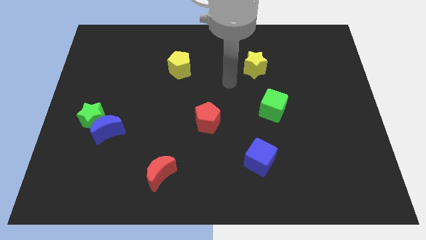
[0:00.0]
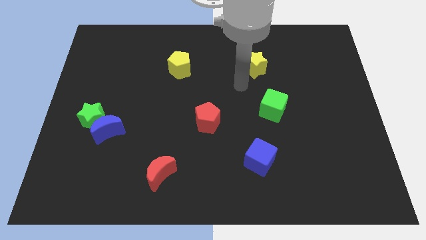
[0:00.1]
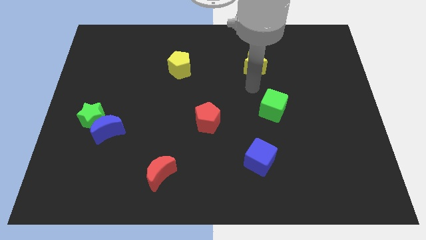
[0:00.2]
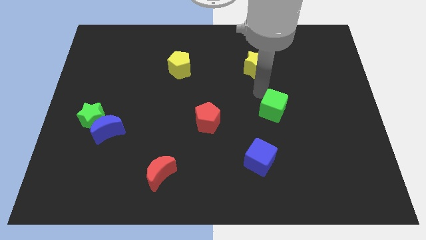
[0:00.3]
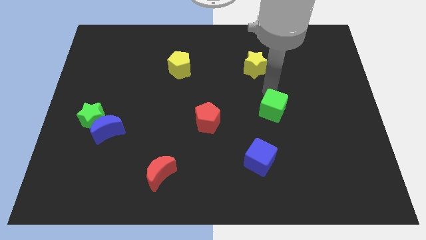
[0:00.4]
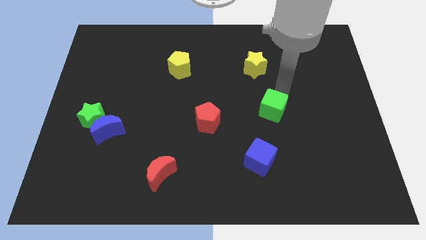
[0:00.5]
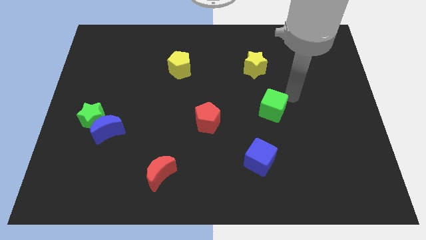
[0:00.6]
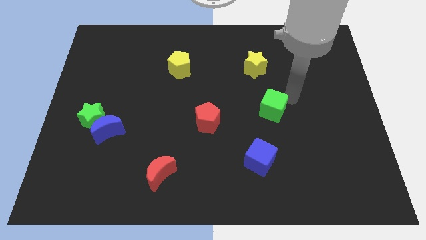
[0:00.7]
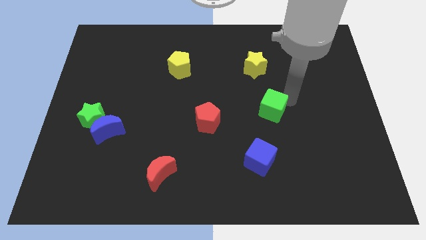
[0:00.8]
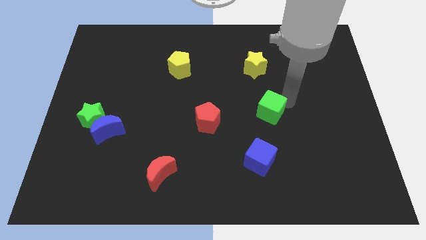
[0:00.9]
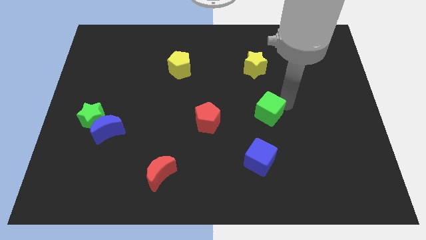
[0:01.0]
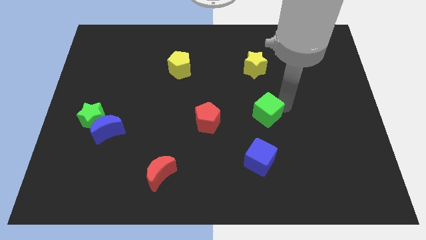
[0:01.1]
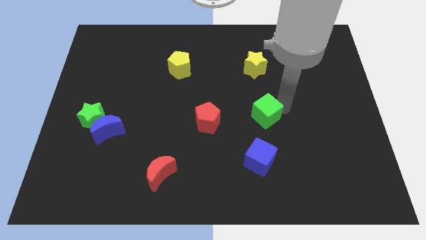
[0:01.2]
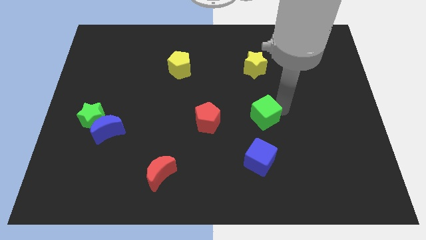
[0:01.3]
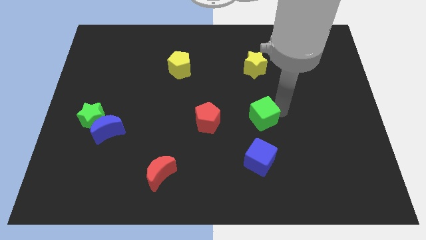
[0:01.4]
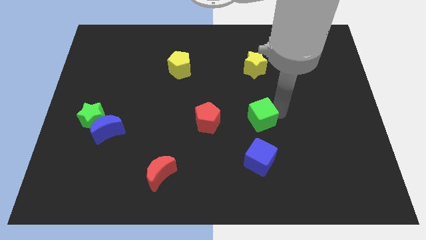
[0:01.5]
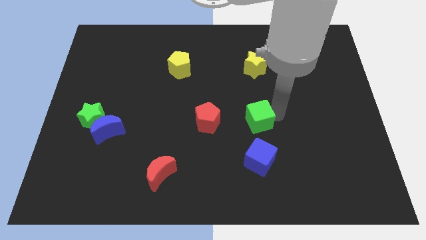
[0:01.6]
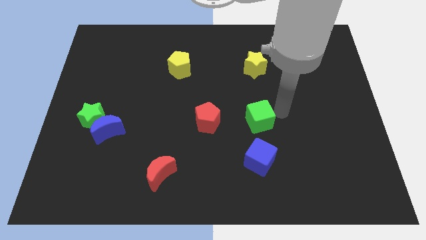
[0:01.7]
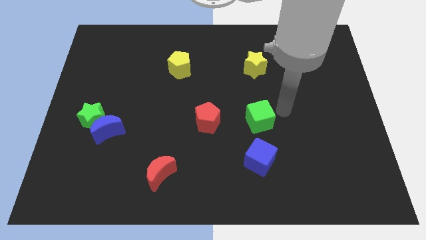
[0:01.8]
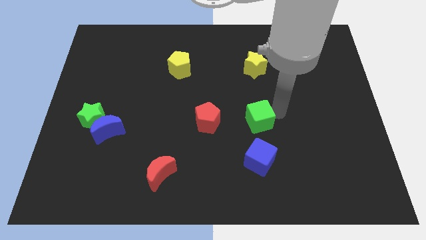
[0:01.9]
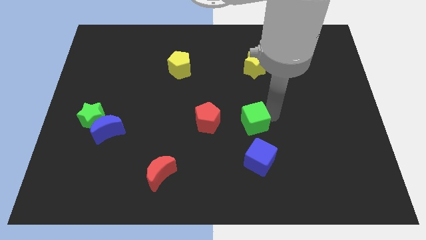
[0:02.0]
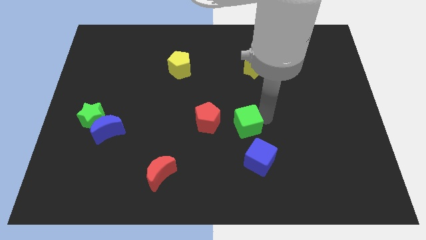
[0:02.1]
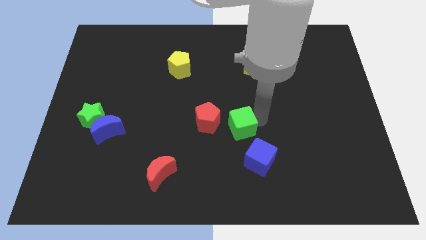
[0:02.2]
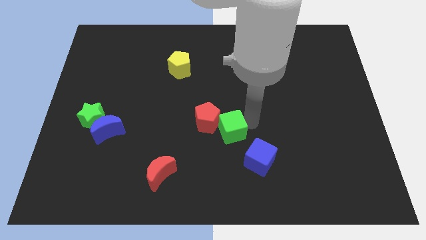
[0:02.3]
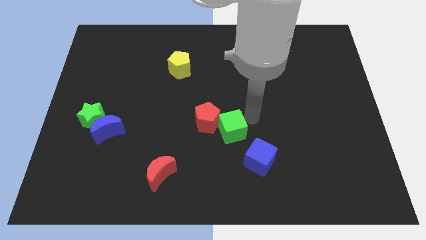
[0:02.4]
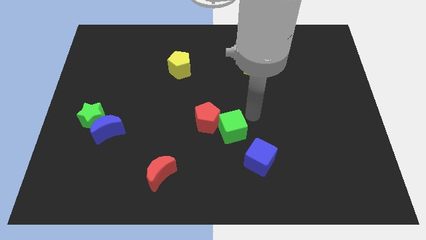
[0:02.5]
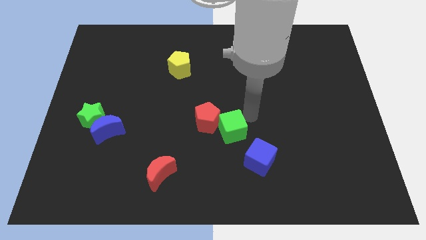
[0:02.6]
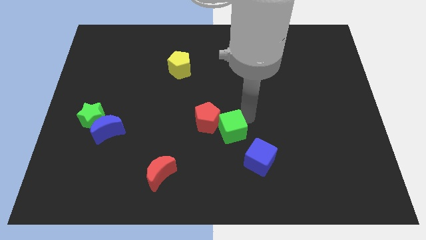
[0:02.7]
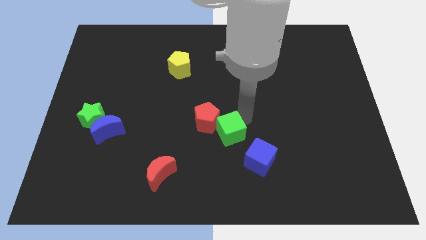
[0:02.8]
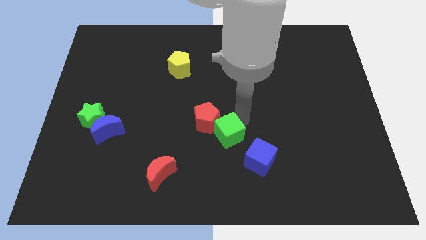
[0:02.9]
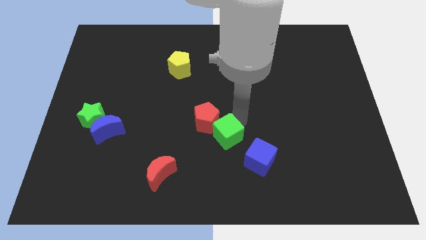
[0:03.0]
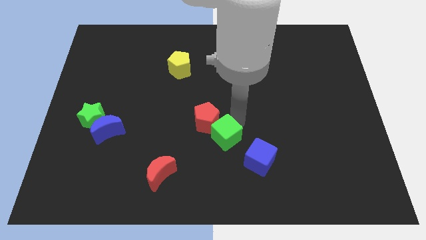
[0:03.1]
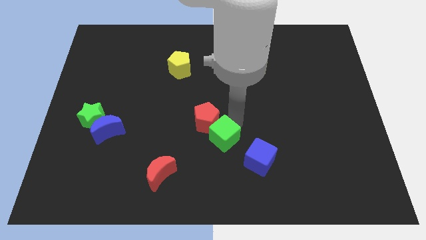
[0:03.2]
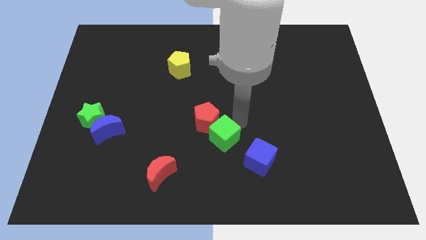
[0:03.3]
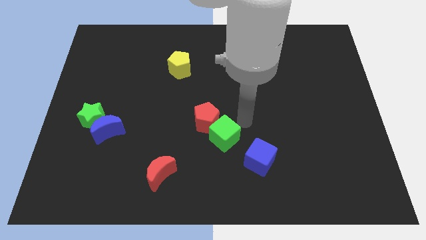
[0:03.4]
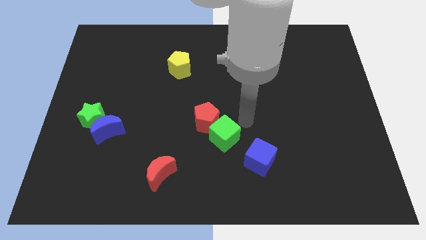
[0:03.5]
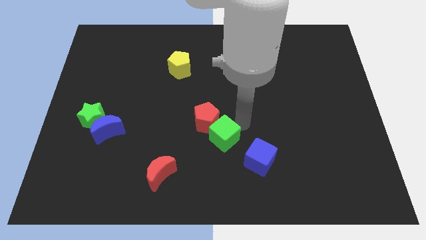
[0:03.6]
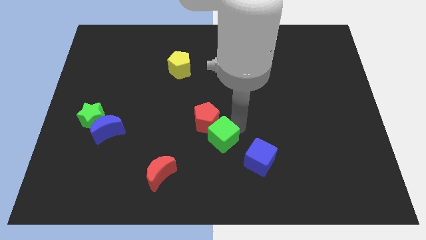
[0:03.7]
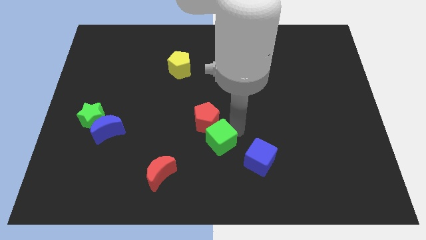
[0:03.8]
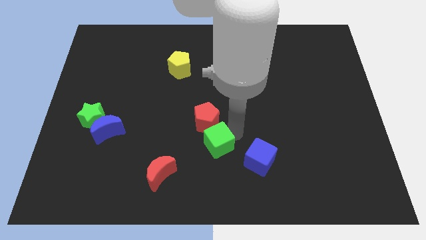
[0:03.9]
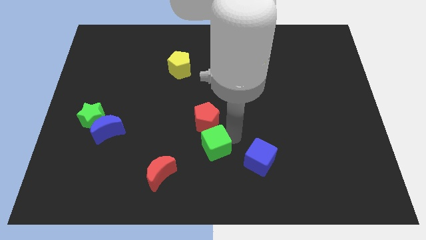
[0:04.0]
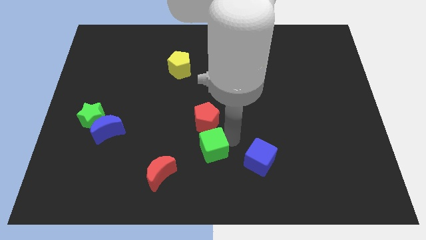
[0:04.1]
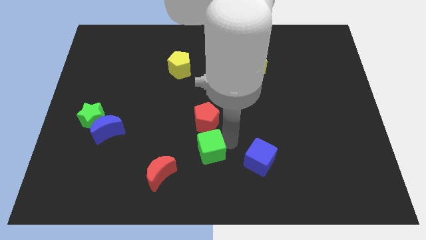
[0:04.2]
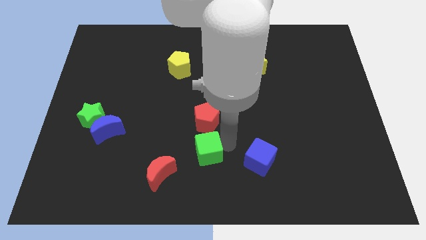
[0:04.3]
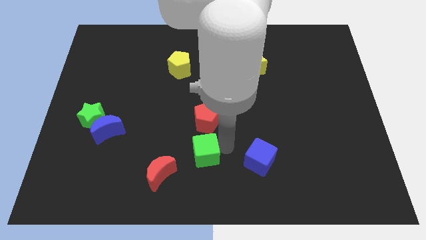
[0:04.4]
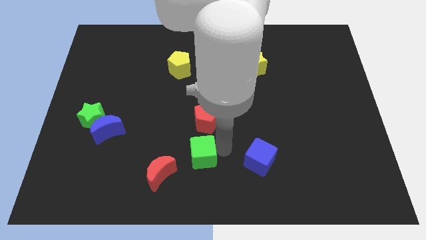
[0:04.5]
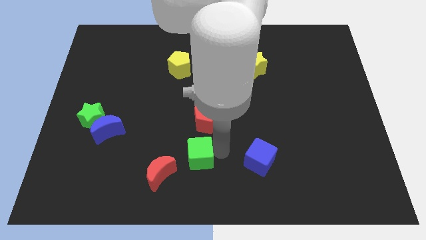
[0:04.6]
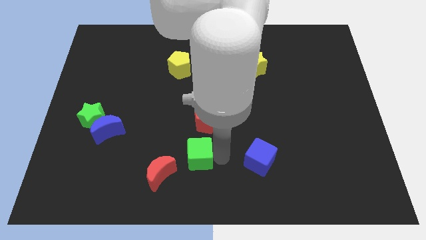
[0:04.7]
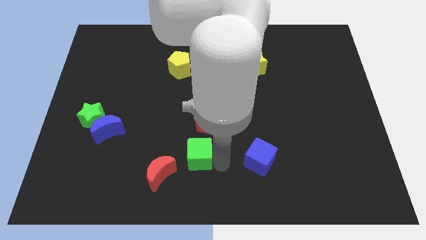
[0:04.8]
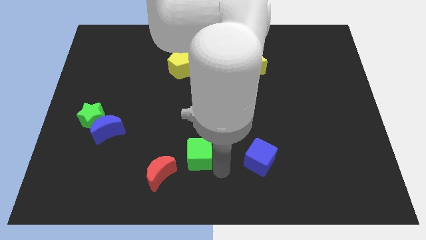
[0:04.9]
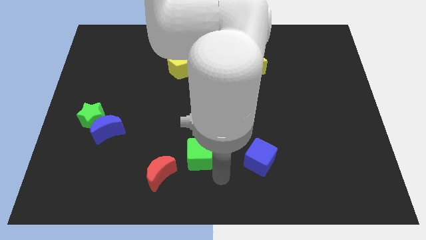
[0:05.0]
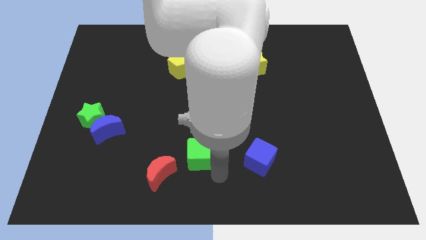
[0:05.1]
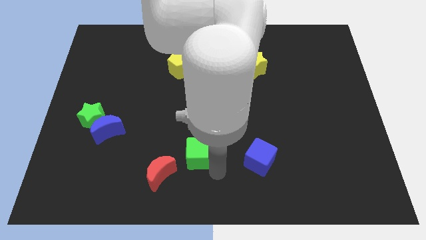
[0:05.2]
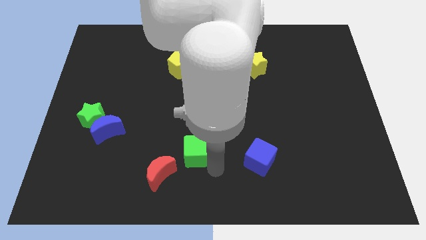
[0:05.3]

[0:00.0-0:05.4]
move the green cube to the bottom left of the red pentagon

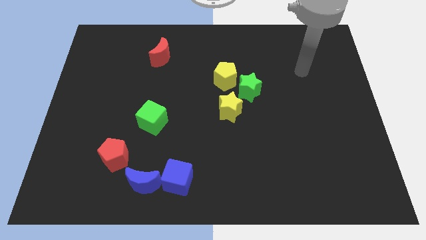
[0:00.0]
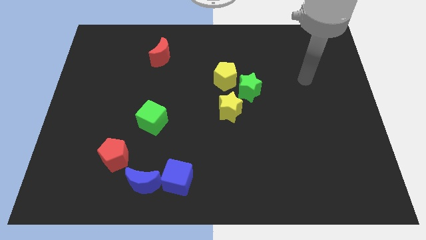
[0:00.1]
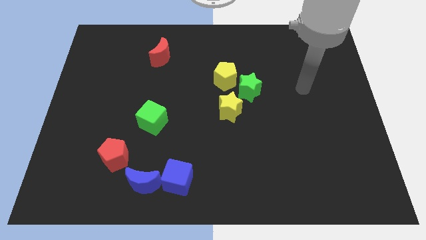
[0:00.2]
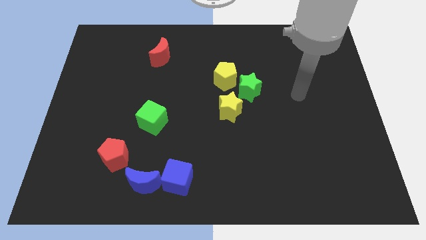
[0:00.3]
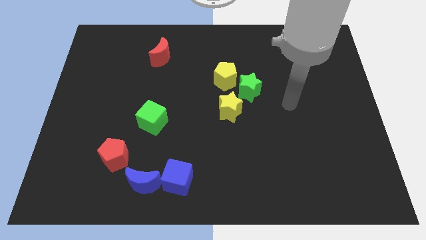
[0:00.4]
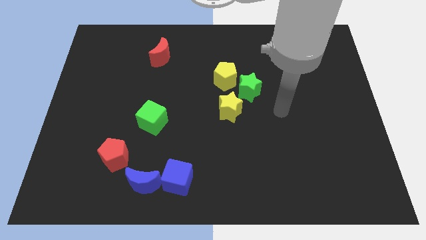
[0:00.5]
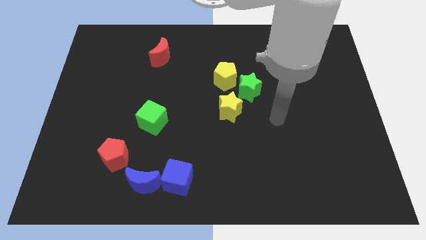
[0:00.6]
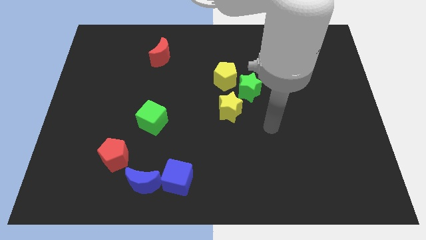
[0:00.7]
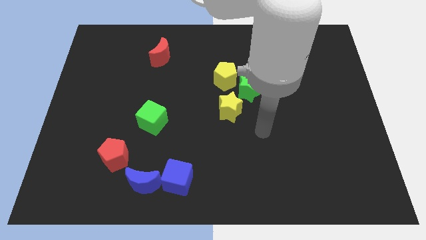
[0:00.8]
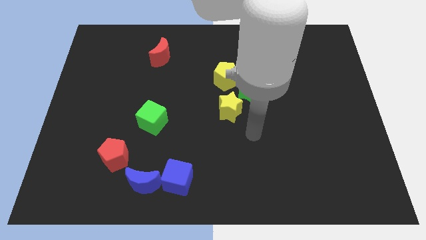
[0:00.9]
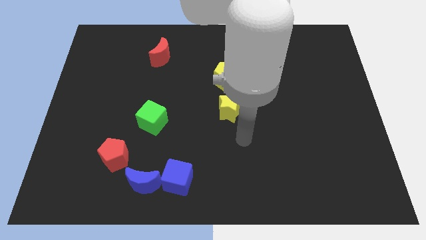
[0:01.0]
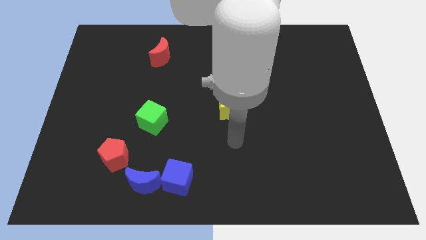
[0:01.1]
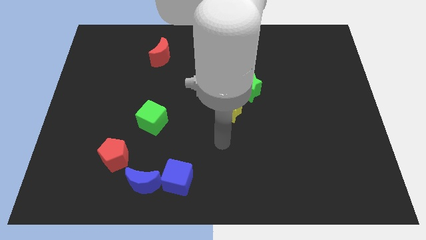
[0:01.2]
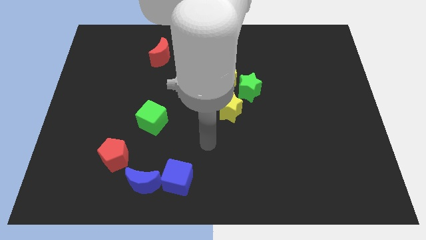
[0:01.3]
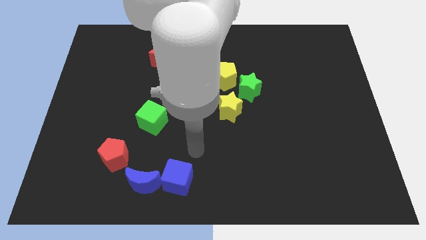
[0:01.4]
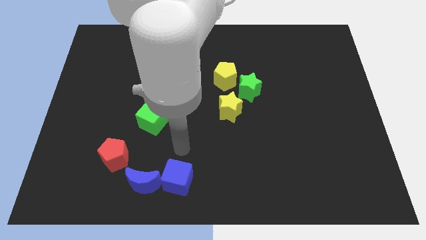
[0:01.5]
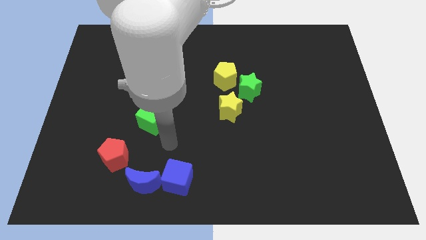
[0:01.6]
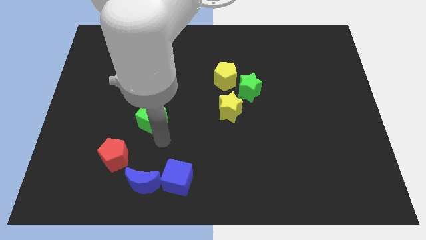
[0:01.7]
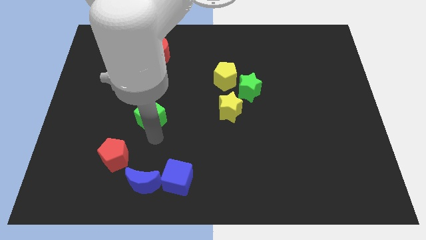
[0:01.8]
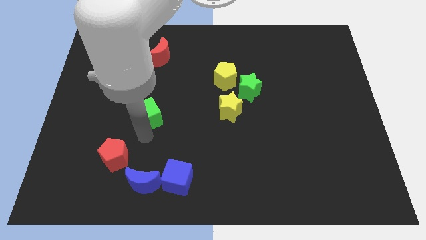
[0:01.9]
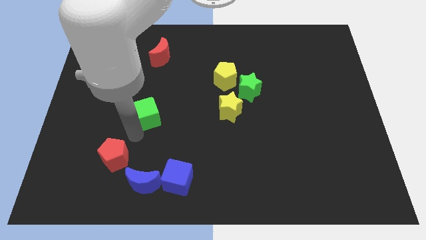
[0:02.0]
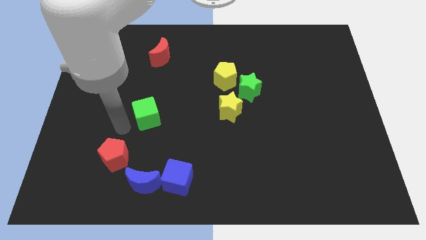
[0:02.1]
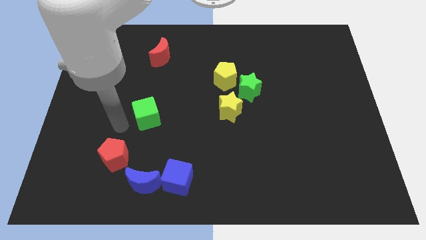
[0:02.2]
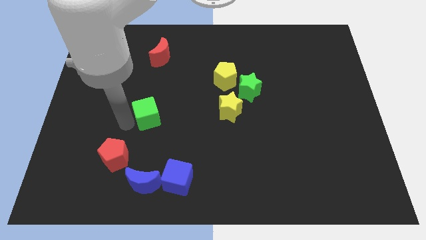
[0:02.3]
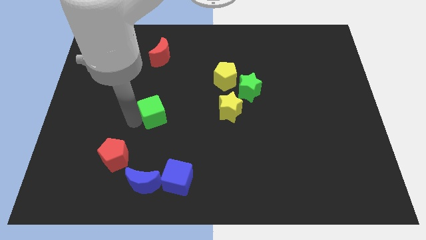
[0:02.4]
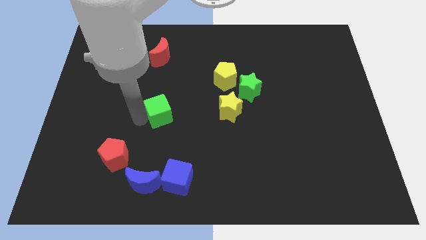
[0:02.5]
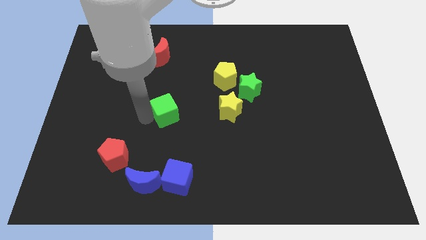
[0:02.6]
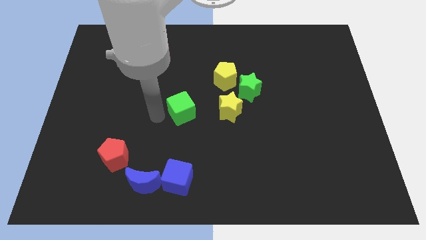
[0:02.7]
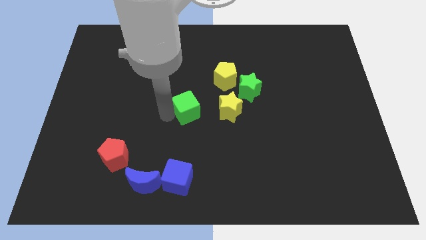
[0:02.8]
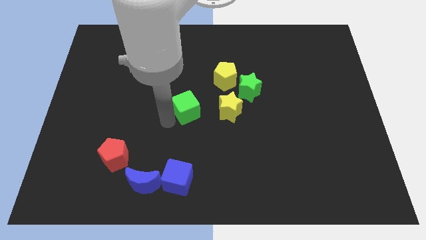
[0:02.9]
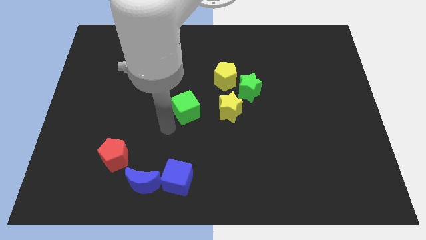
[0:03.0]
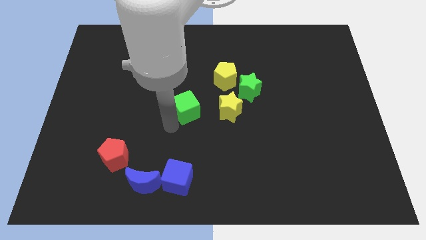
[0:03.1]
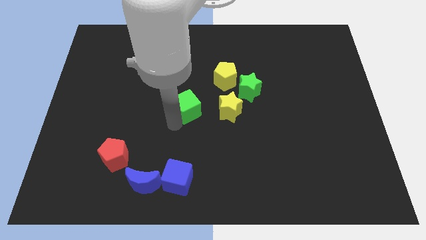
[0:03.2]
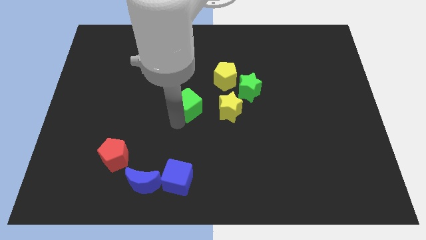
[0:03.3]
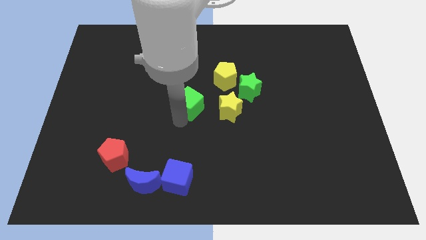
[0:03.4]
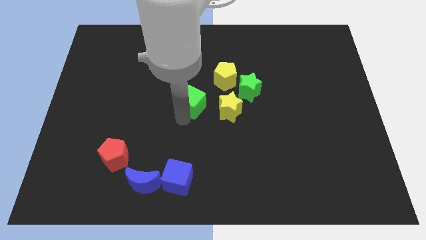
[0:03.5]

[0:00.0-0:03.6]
move the green cube to the left of the green star
